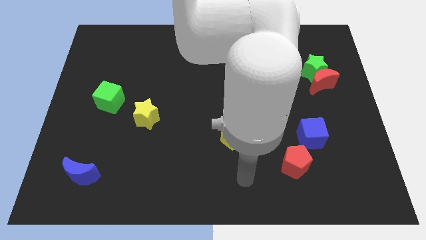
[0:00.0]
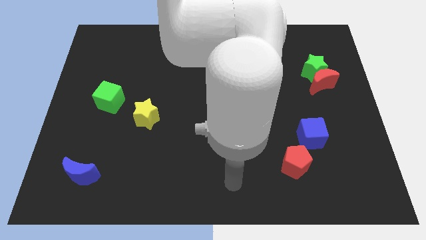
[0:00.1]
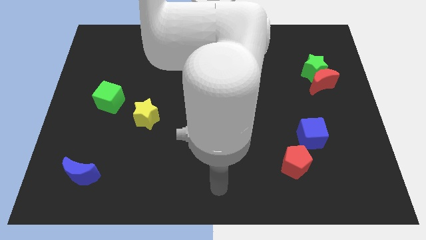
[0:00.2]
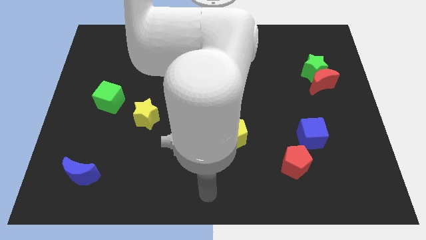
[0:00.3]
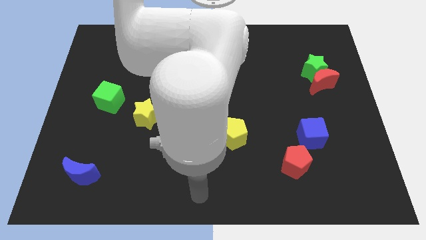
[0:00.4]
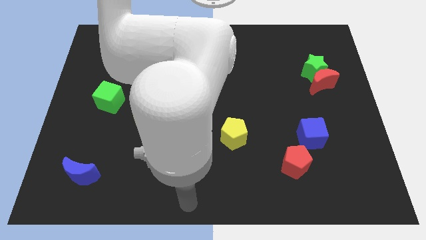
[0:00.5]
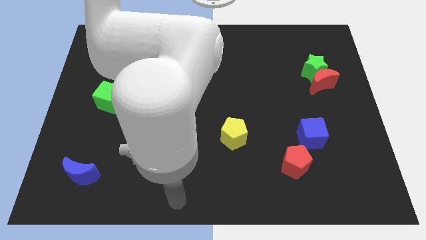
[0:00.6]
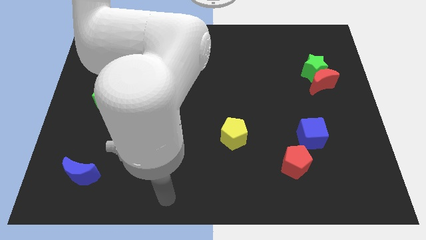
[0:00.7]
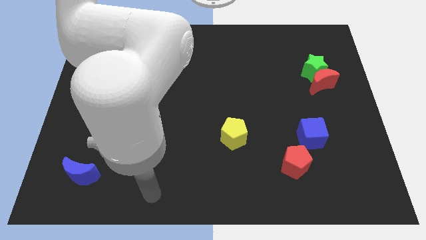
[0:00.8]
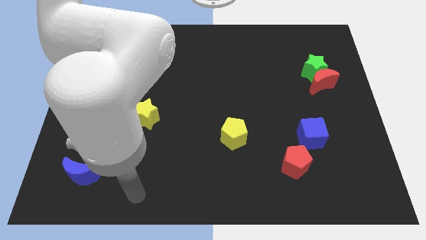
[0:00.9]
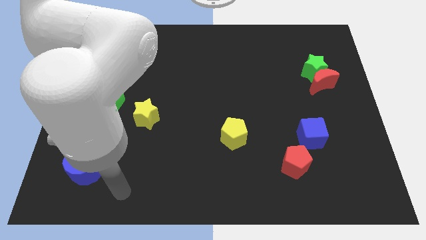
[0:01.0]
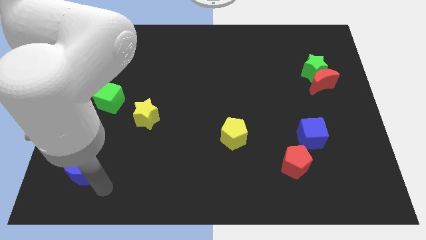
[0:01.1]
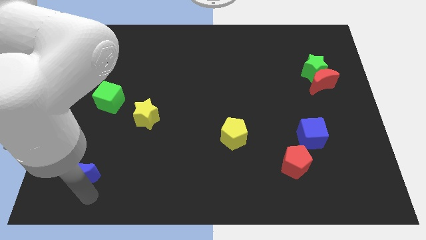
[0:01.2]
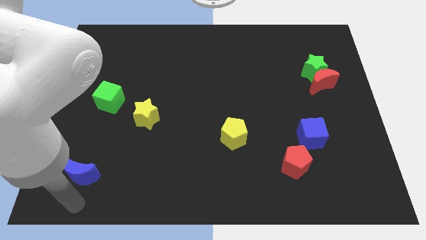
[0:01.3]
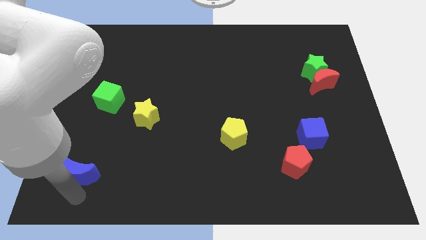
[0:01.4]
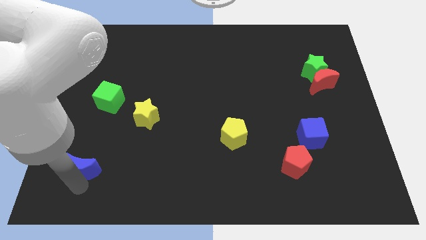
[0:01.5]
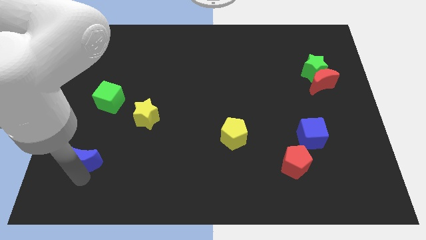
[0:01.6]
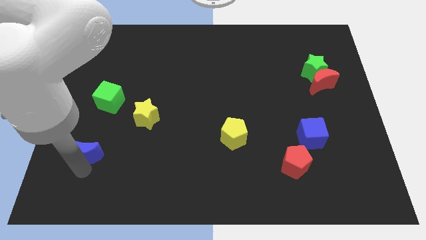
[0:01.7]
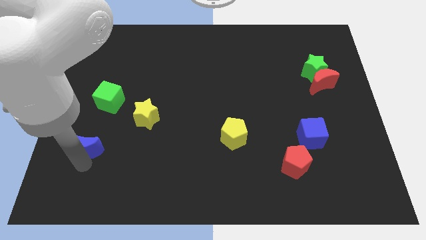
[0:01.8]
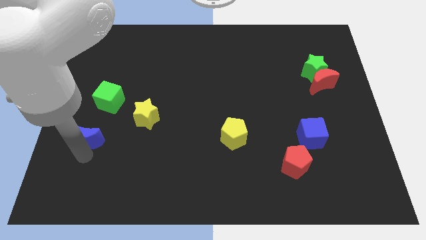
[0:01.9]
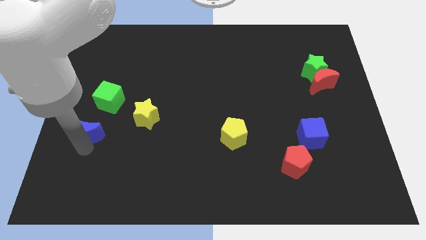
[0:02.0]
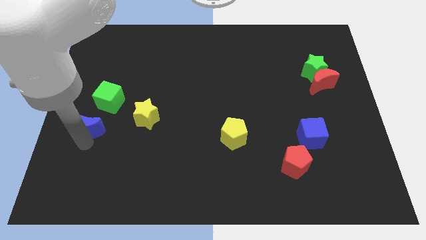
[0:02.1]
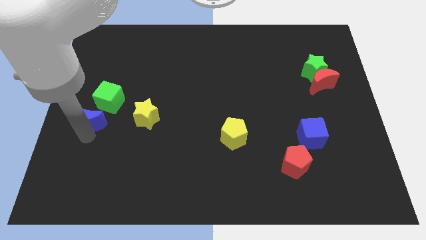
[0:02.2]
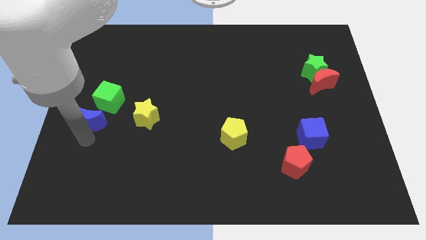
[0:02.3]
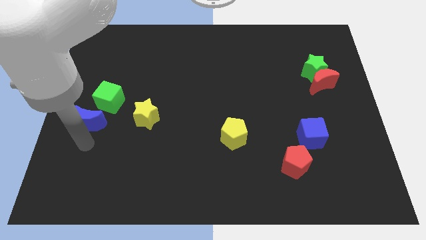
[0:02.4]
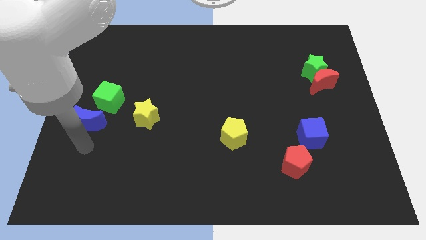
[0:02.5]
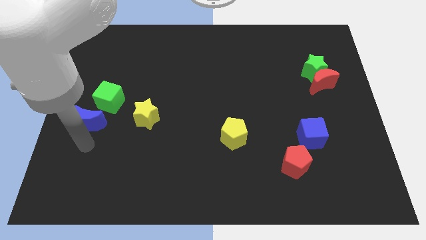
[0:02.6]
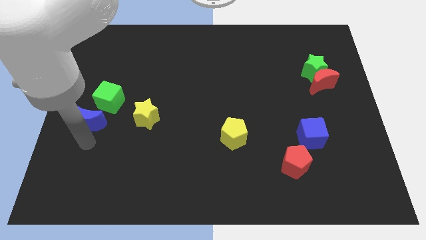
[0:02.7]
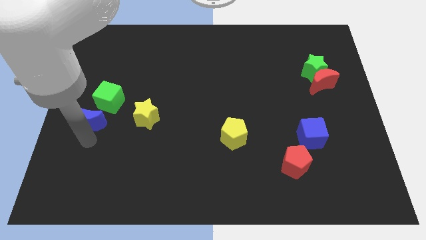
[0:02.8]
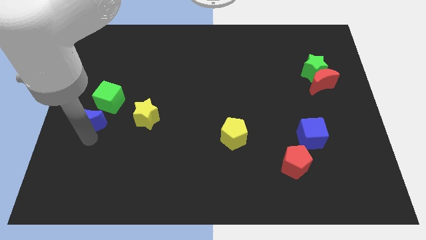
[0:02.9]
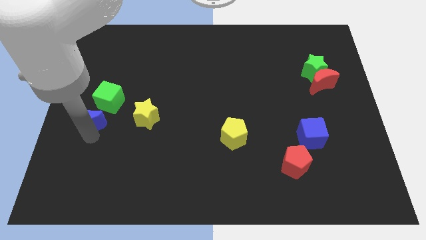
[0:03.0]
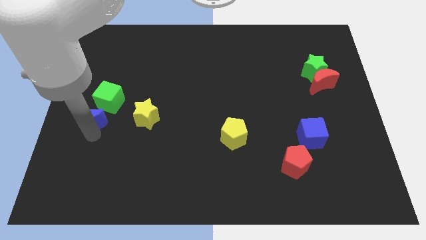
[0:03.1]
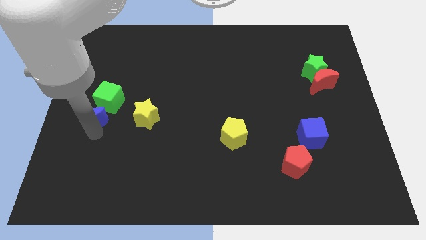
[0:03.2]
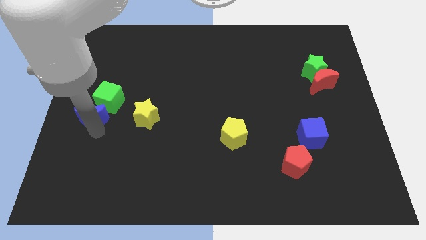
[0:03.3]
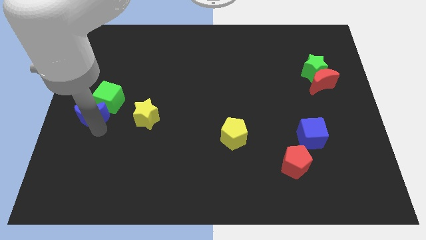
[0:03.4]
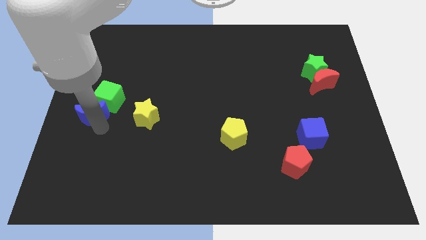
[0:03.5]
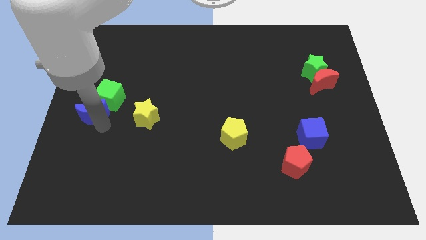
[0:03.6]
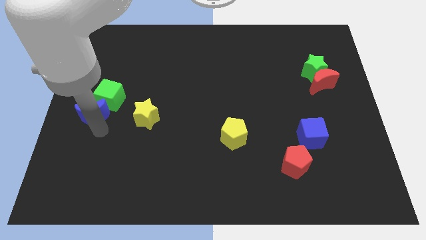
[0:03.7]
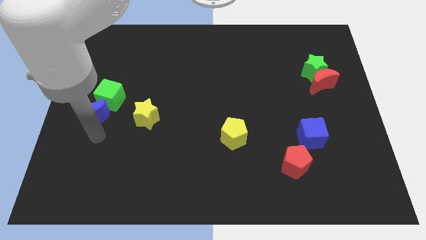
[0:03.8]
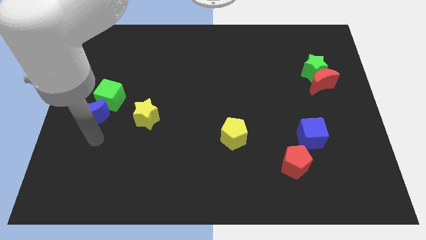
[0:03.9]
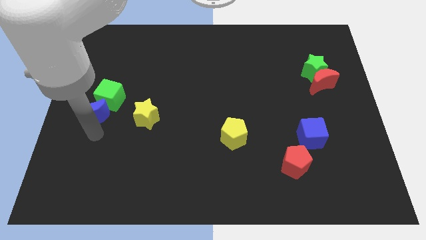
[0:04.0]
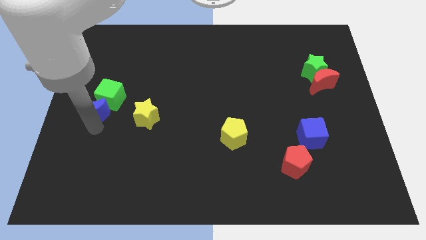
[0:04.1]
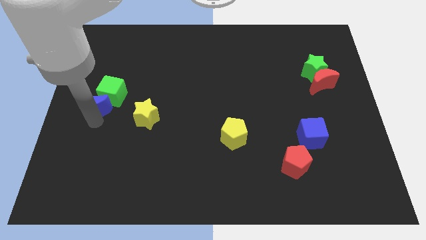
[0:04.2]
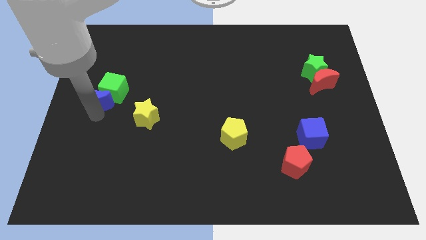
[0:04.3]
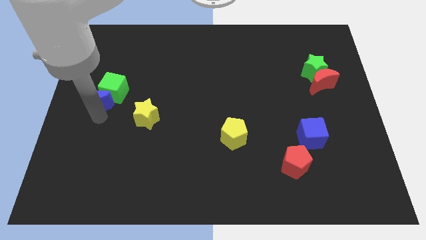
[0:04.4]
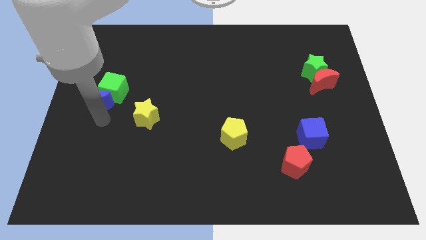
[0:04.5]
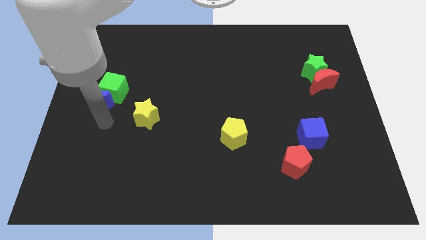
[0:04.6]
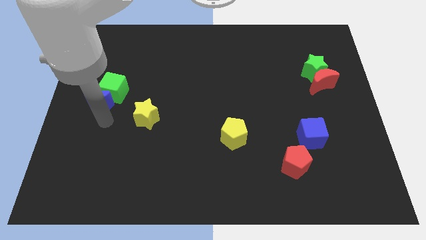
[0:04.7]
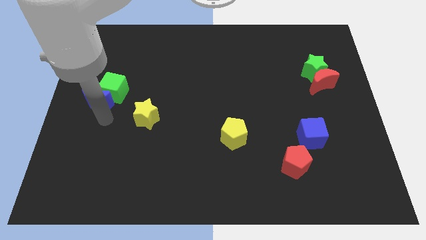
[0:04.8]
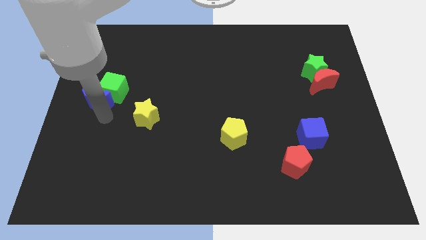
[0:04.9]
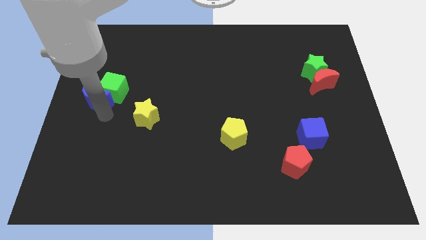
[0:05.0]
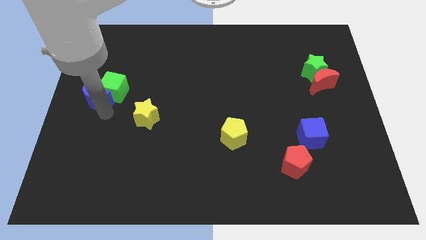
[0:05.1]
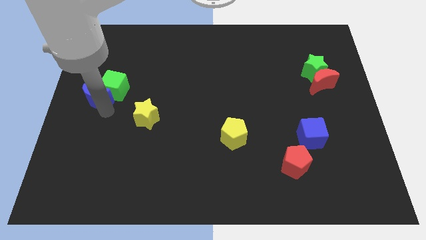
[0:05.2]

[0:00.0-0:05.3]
slide the blue moon up

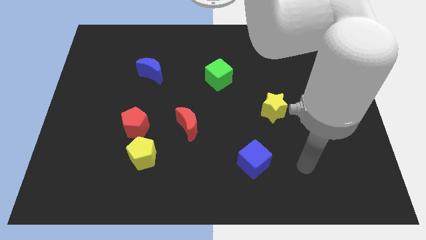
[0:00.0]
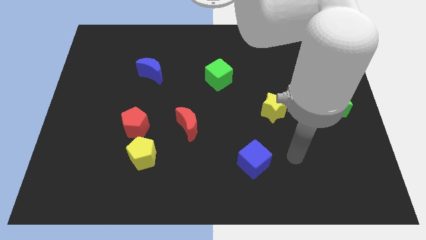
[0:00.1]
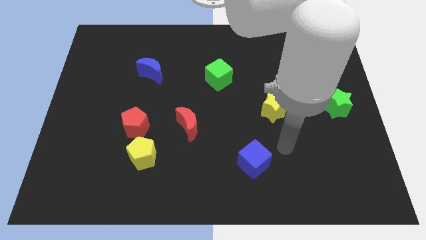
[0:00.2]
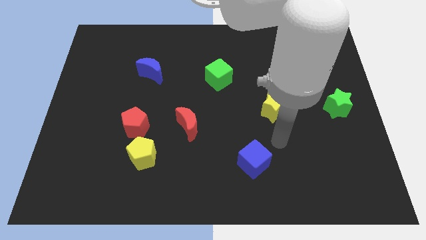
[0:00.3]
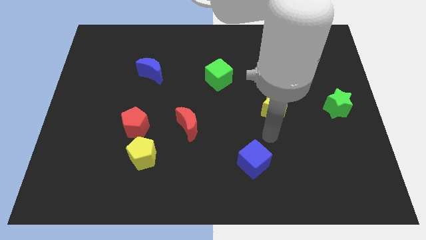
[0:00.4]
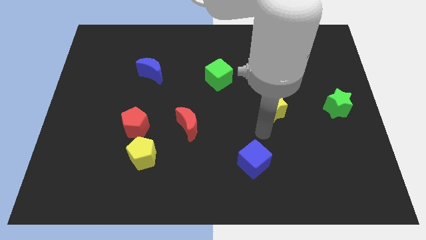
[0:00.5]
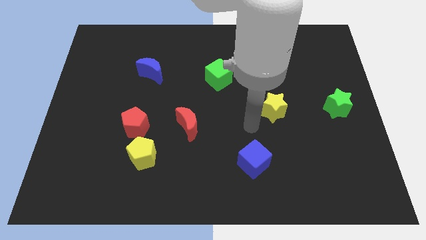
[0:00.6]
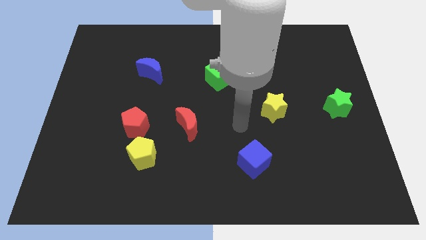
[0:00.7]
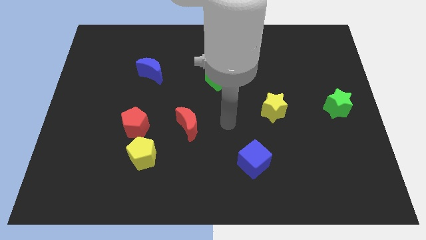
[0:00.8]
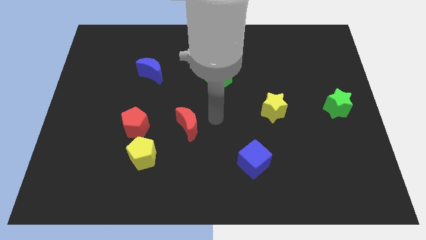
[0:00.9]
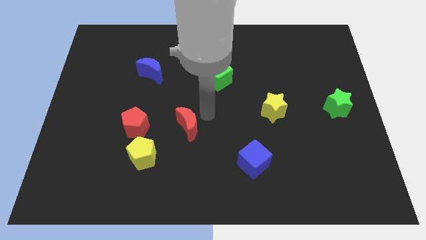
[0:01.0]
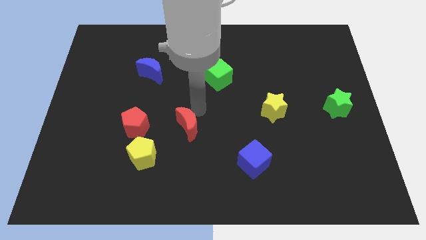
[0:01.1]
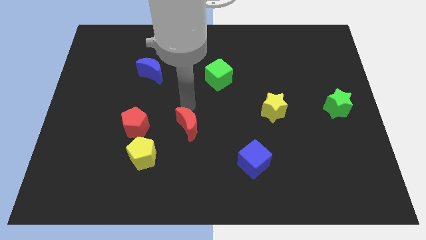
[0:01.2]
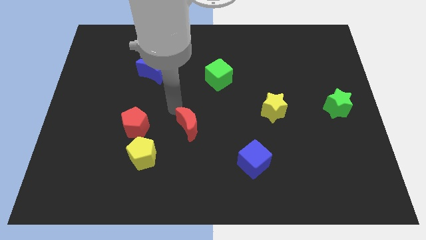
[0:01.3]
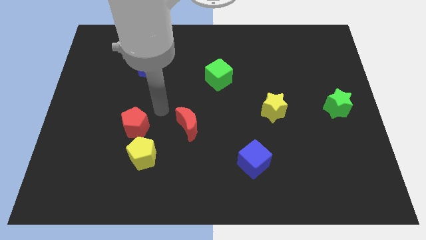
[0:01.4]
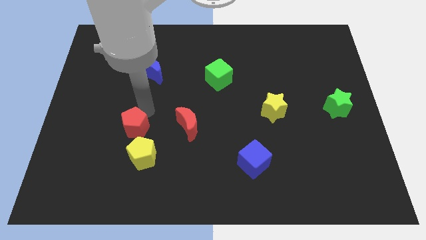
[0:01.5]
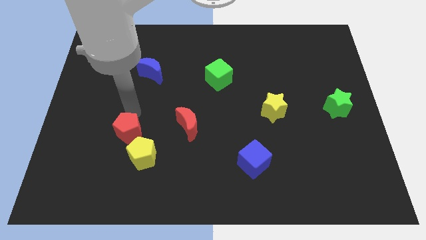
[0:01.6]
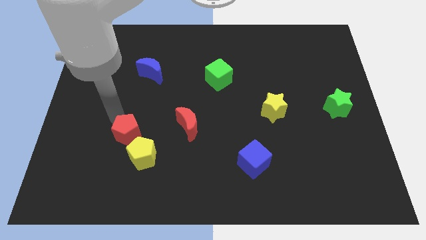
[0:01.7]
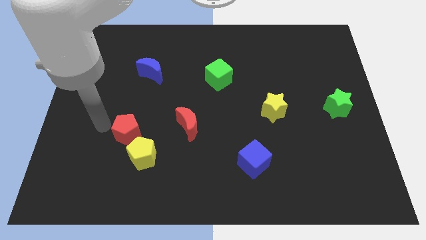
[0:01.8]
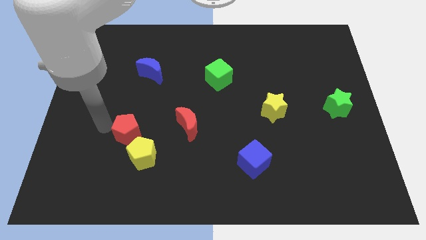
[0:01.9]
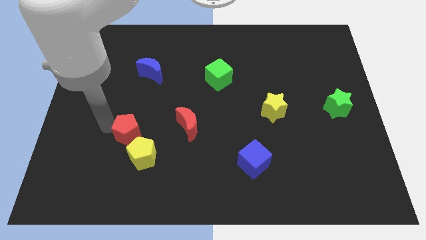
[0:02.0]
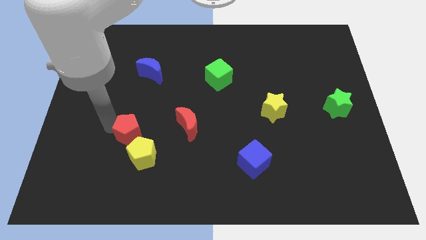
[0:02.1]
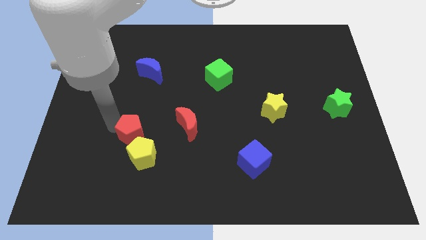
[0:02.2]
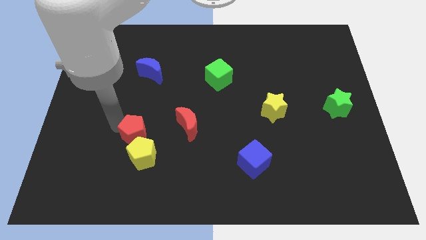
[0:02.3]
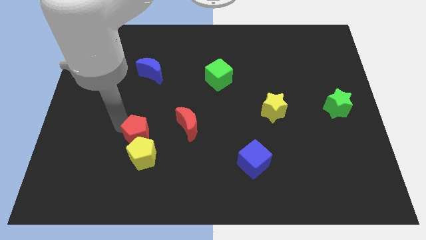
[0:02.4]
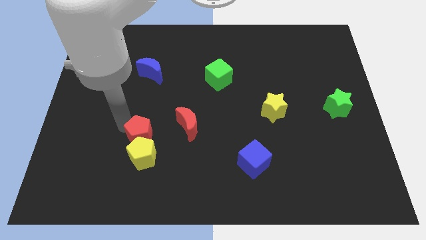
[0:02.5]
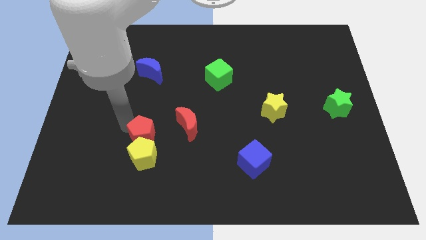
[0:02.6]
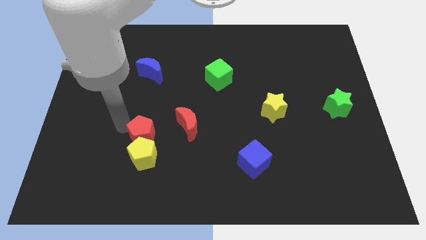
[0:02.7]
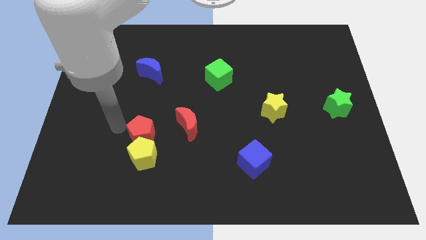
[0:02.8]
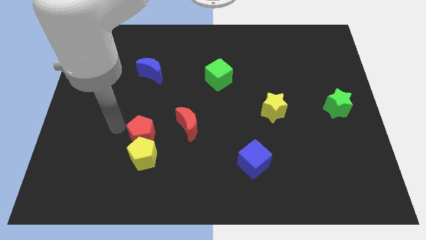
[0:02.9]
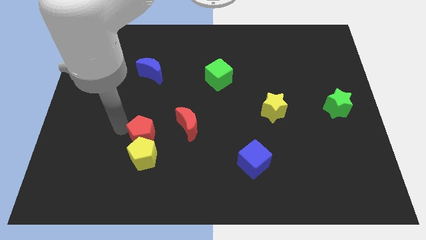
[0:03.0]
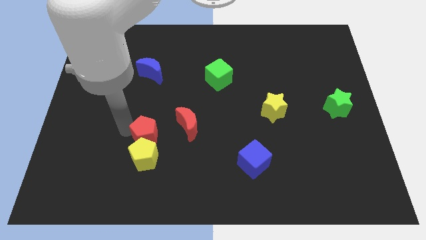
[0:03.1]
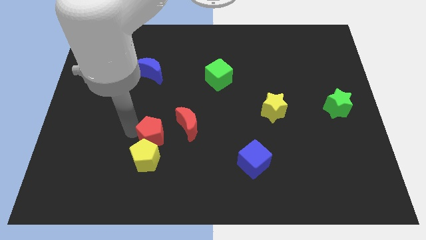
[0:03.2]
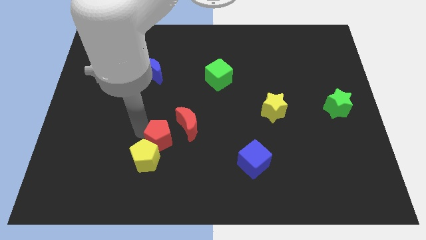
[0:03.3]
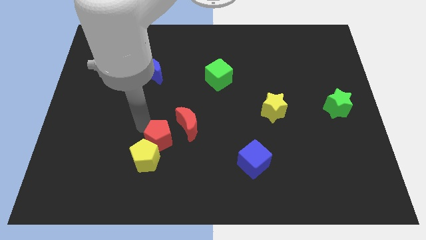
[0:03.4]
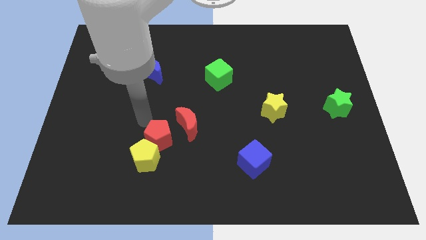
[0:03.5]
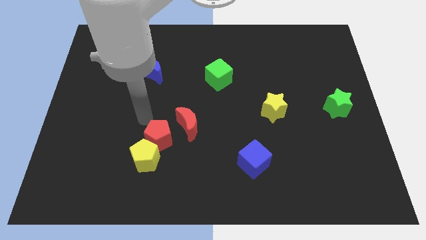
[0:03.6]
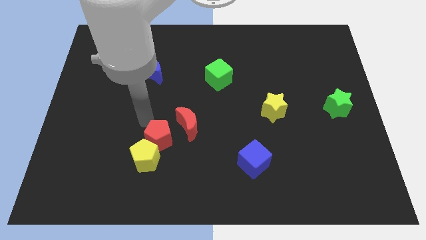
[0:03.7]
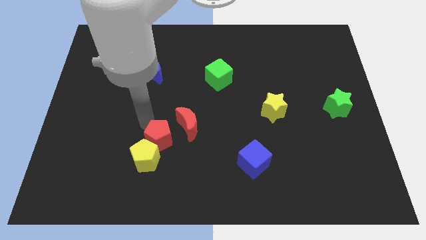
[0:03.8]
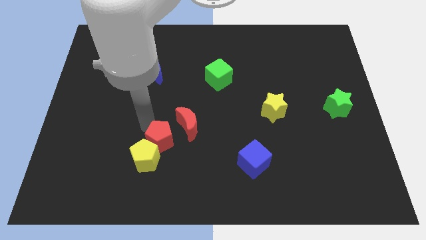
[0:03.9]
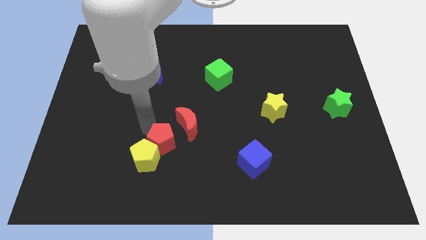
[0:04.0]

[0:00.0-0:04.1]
move the red pentagon somewhat downwards and right
